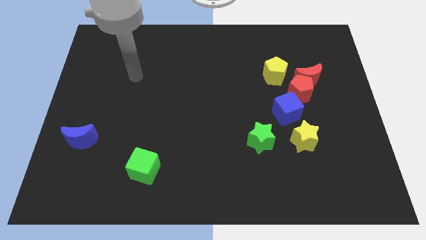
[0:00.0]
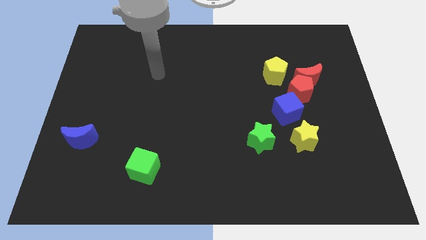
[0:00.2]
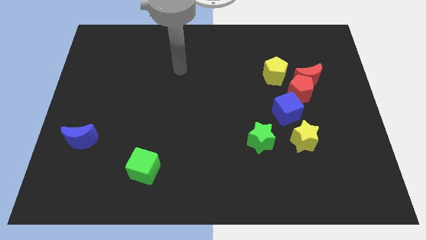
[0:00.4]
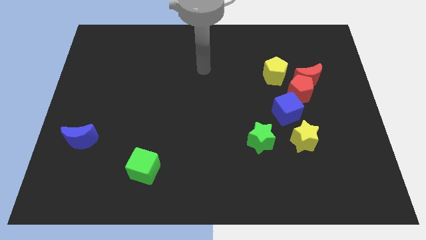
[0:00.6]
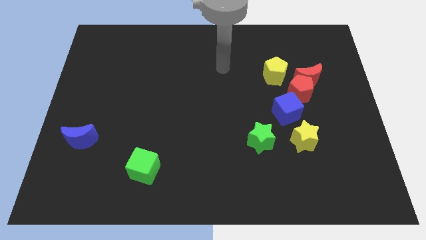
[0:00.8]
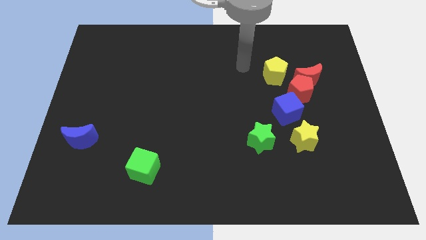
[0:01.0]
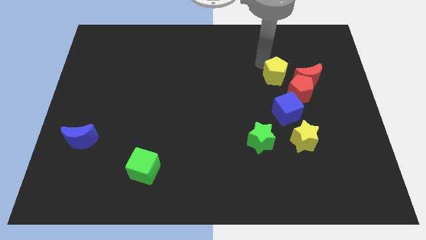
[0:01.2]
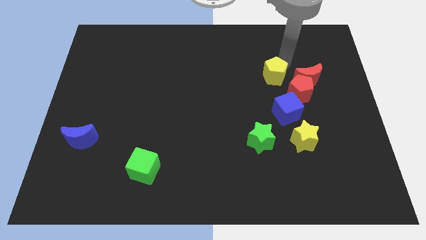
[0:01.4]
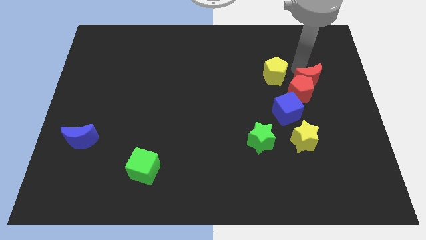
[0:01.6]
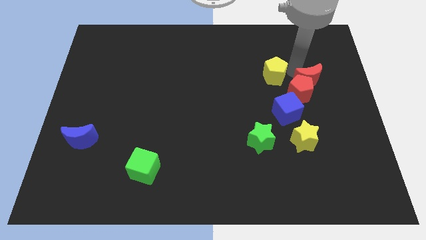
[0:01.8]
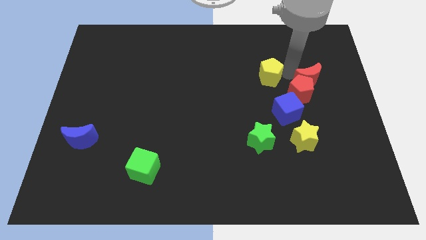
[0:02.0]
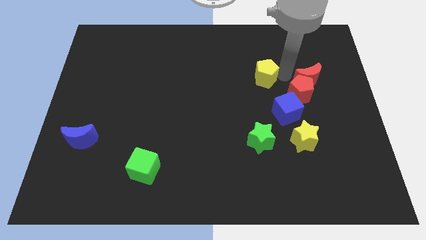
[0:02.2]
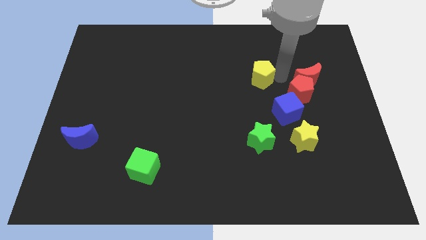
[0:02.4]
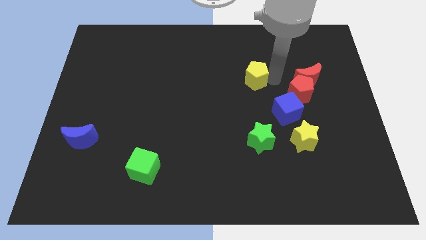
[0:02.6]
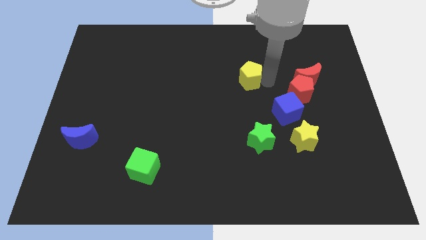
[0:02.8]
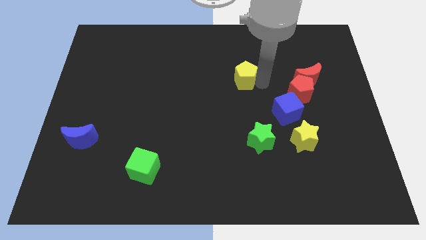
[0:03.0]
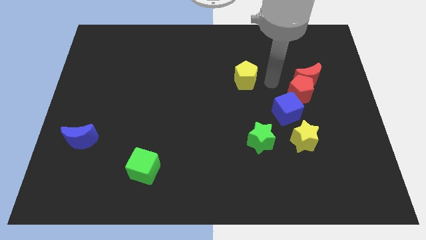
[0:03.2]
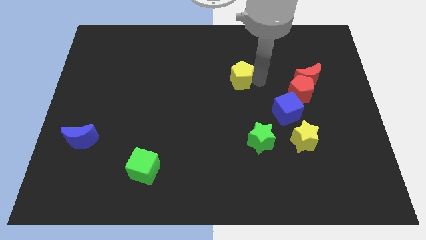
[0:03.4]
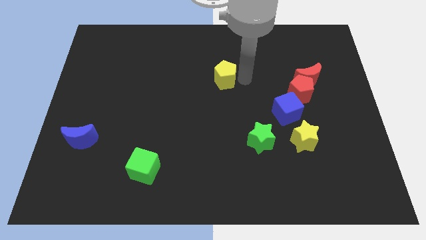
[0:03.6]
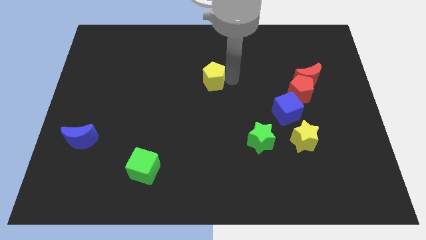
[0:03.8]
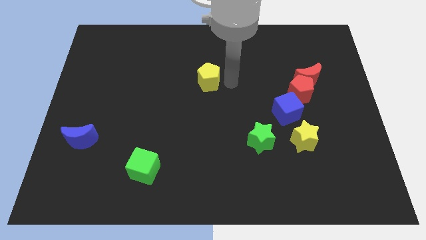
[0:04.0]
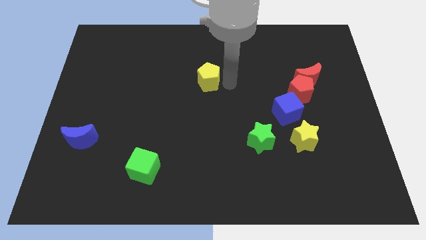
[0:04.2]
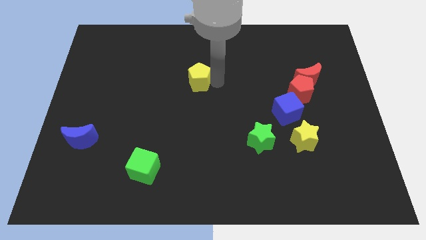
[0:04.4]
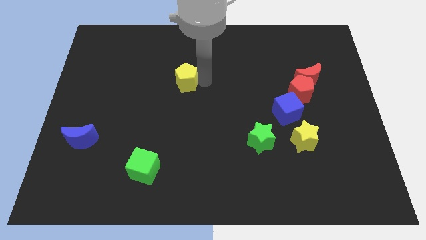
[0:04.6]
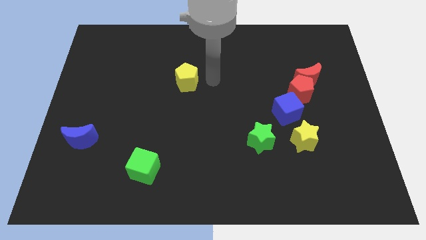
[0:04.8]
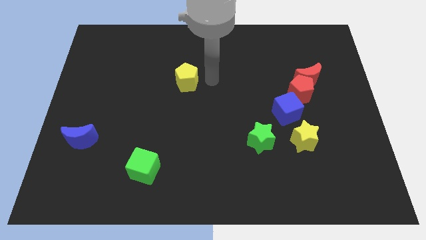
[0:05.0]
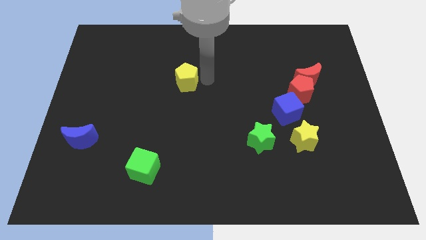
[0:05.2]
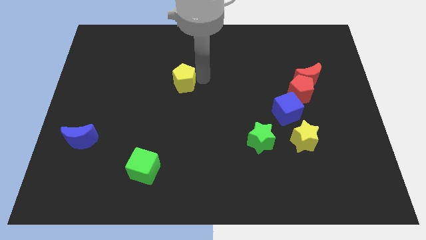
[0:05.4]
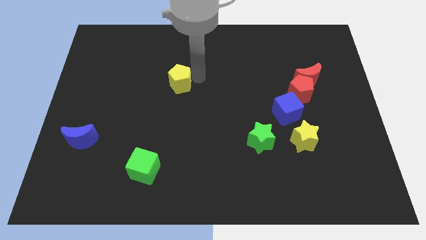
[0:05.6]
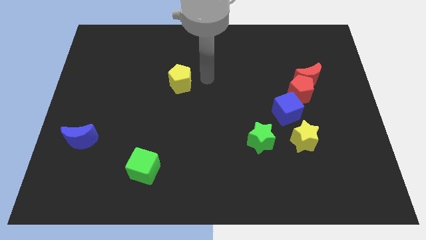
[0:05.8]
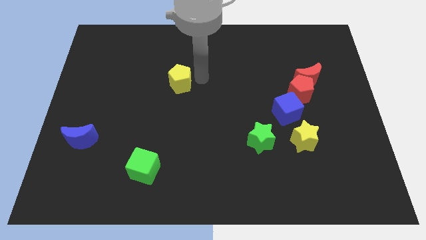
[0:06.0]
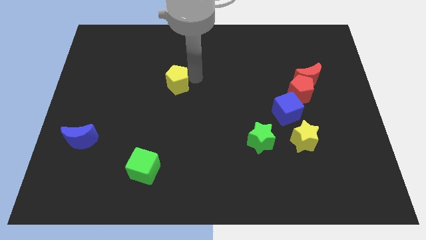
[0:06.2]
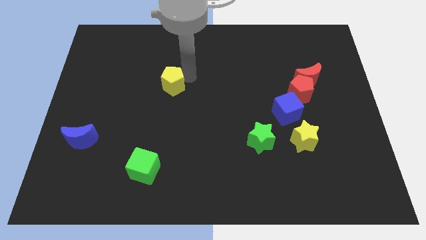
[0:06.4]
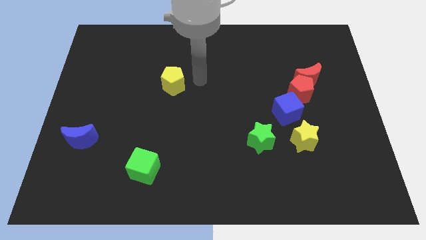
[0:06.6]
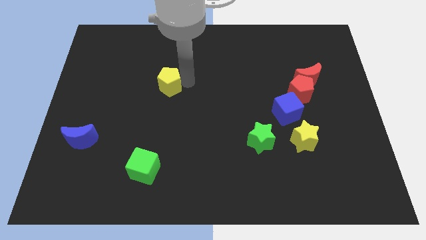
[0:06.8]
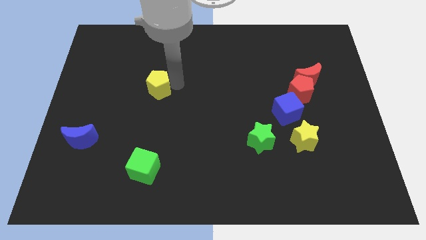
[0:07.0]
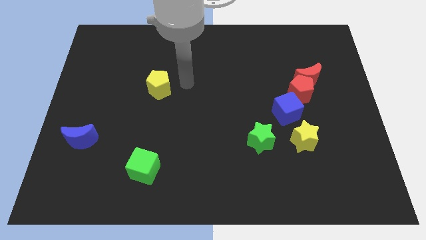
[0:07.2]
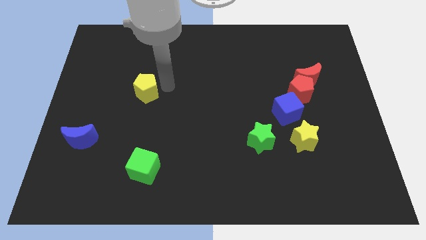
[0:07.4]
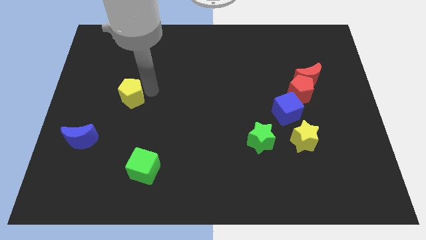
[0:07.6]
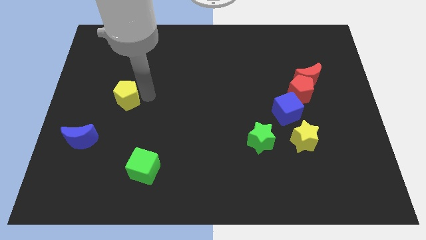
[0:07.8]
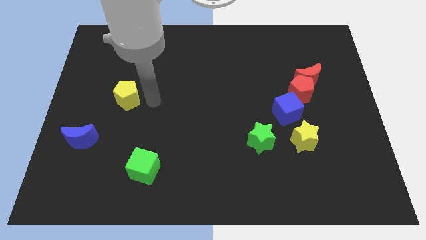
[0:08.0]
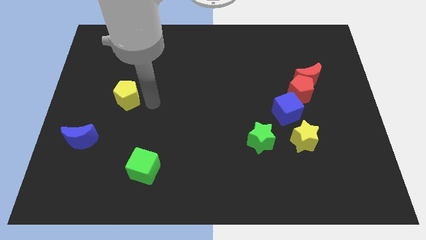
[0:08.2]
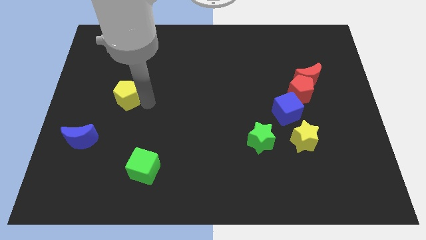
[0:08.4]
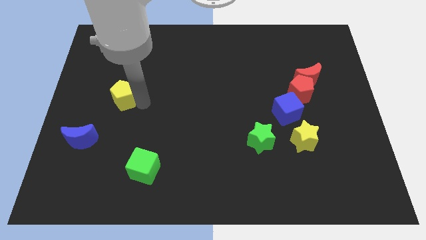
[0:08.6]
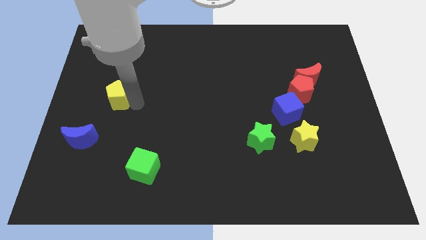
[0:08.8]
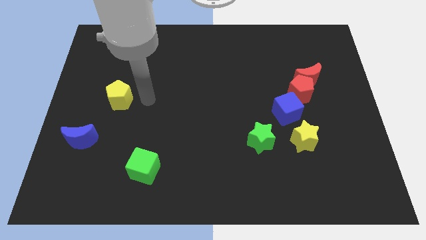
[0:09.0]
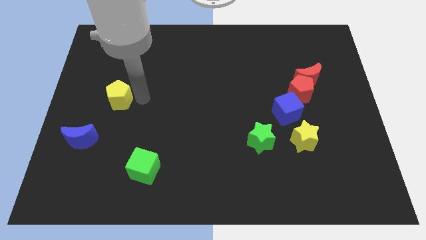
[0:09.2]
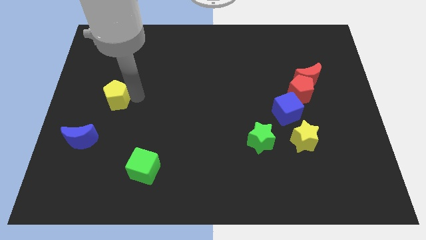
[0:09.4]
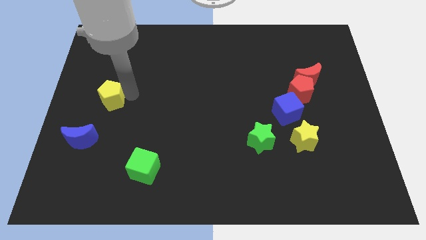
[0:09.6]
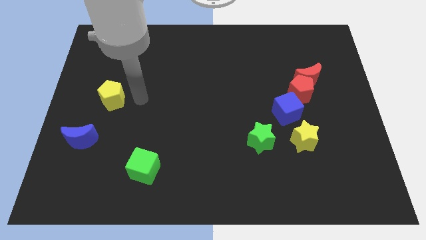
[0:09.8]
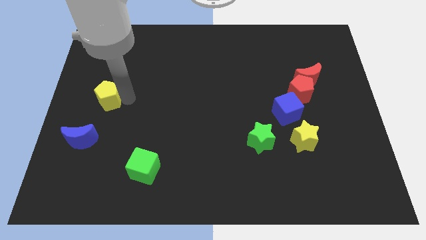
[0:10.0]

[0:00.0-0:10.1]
move the yellow pentagon to the left side

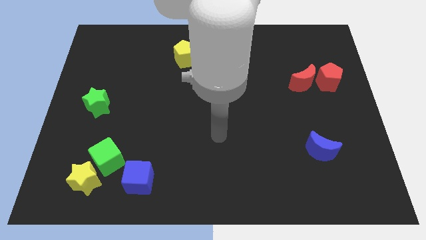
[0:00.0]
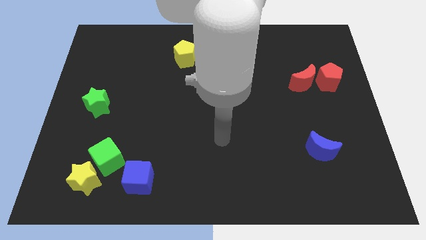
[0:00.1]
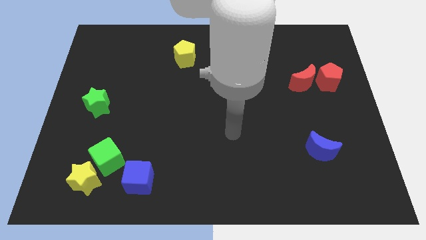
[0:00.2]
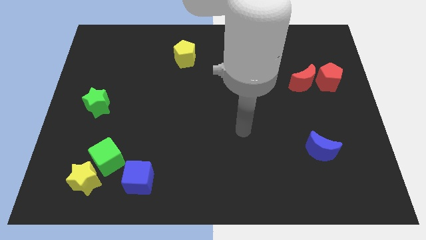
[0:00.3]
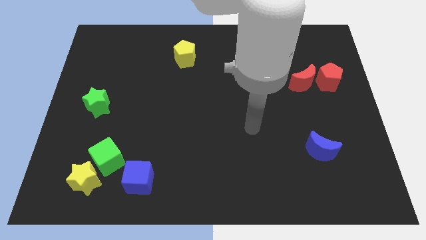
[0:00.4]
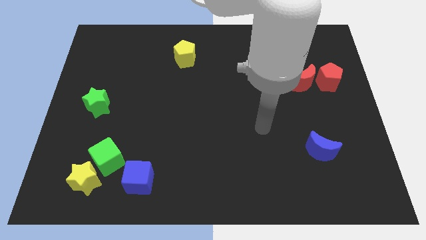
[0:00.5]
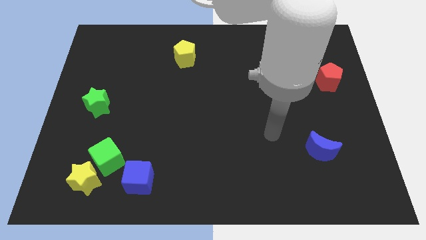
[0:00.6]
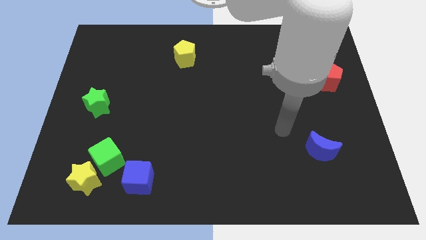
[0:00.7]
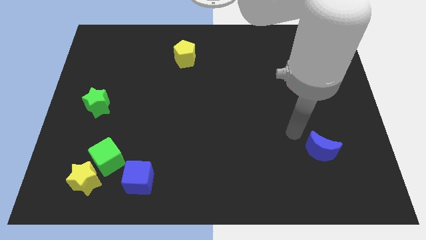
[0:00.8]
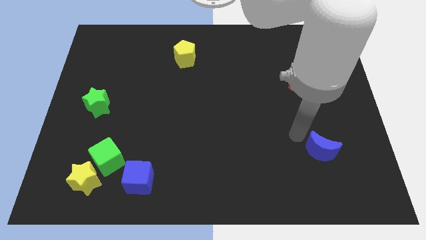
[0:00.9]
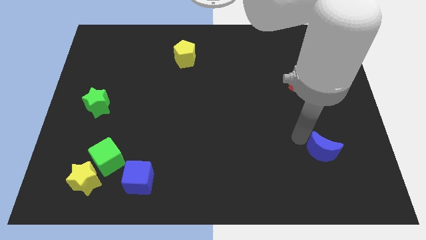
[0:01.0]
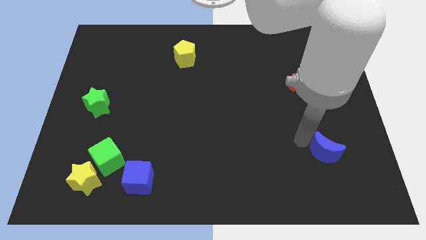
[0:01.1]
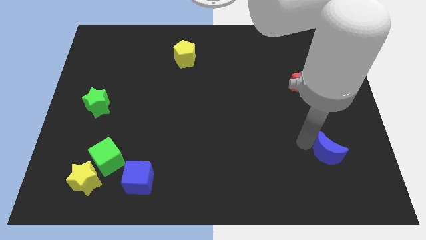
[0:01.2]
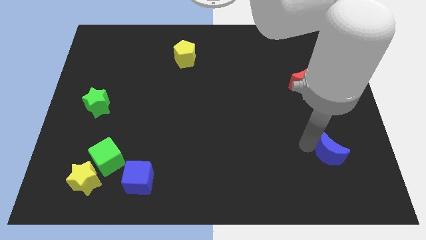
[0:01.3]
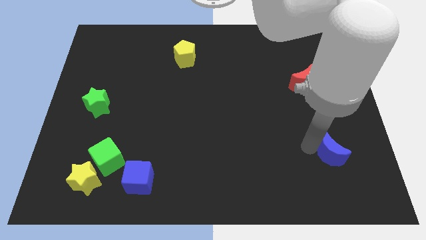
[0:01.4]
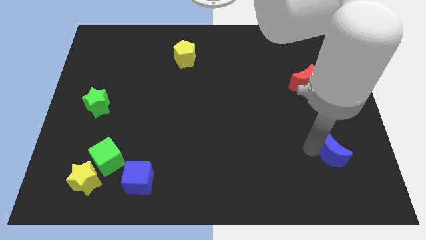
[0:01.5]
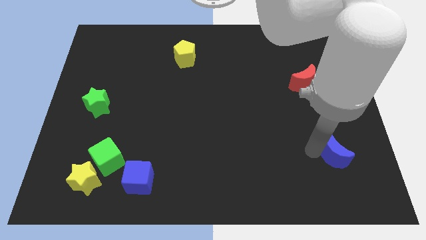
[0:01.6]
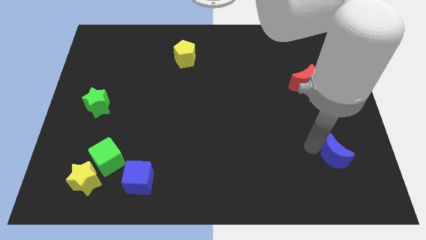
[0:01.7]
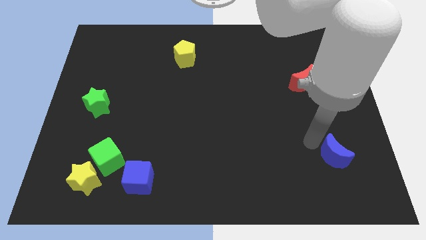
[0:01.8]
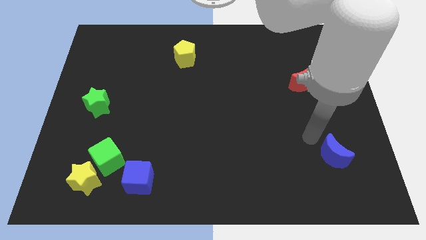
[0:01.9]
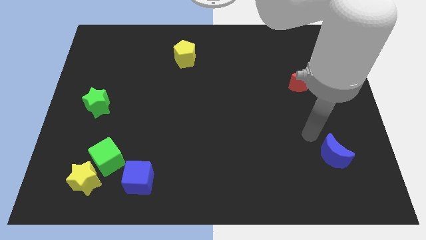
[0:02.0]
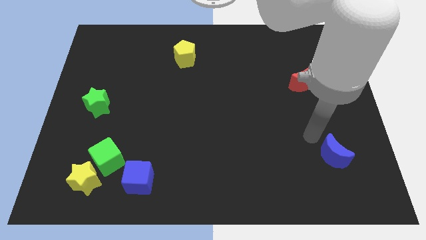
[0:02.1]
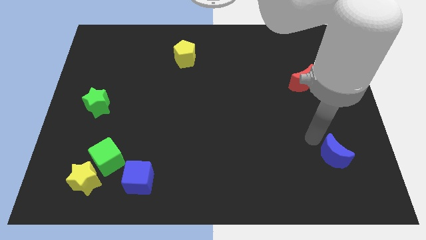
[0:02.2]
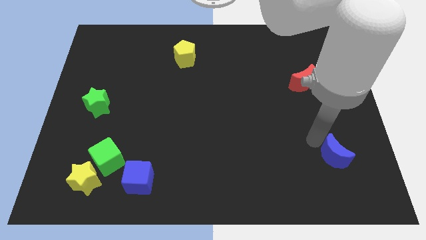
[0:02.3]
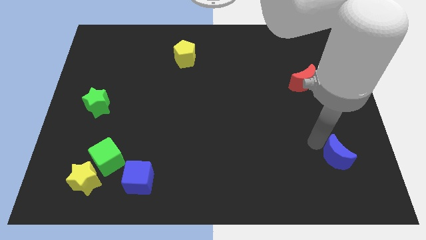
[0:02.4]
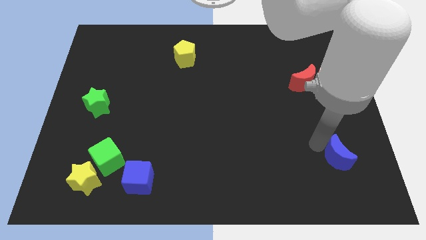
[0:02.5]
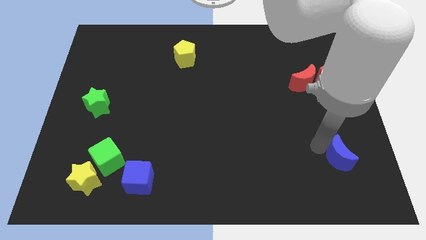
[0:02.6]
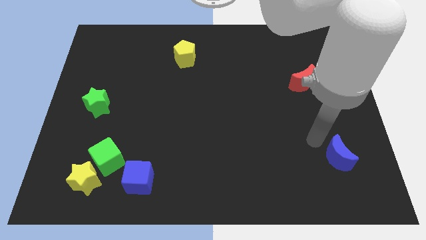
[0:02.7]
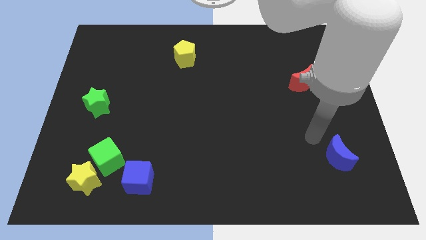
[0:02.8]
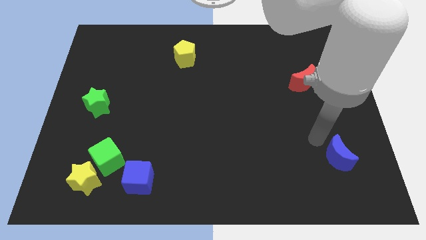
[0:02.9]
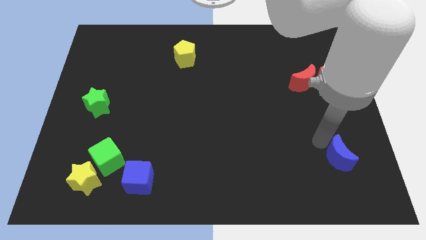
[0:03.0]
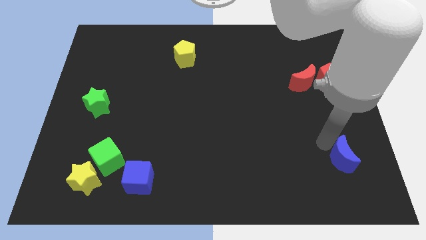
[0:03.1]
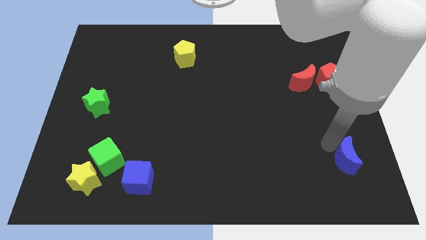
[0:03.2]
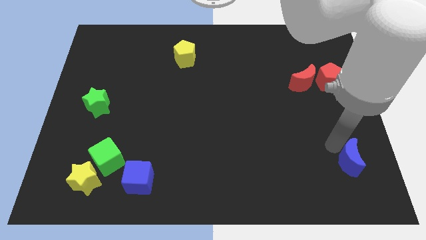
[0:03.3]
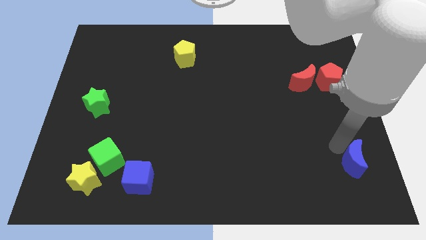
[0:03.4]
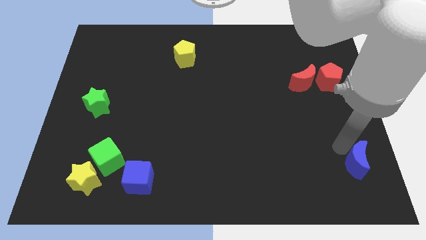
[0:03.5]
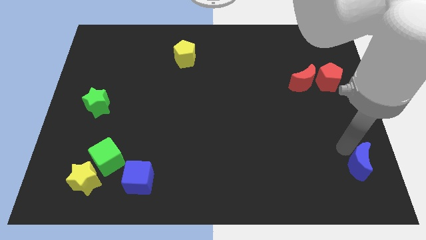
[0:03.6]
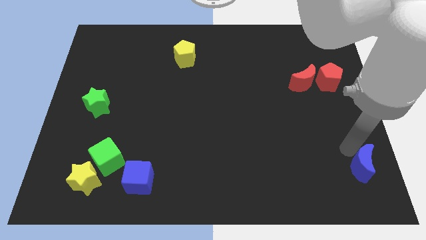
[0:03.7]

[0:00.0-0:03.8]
put the blue moon to the bottom right
